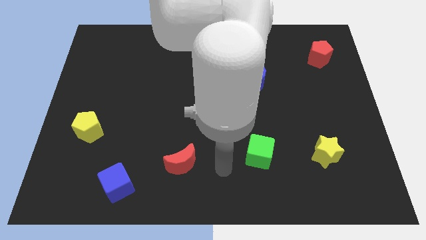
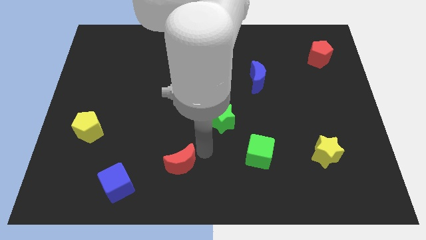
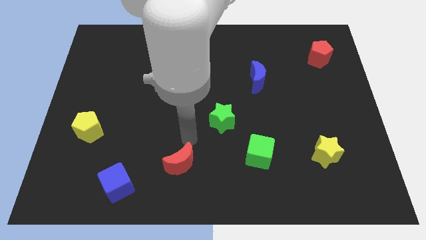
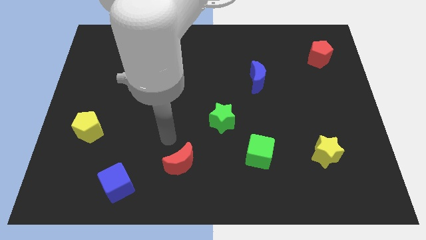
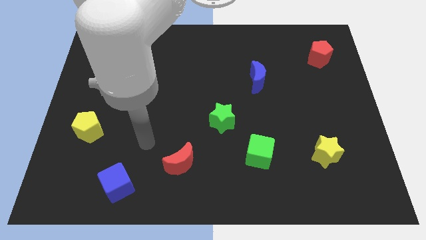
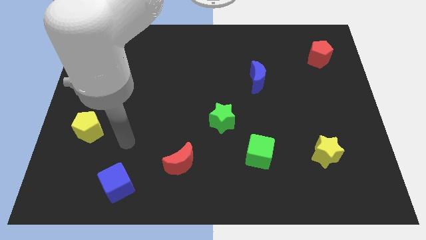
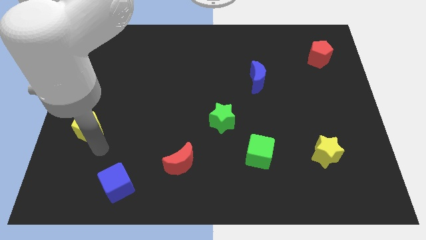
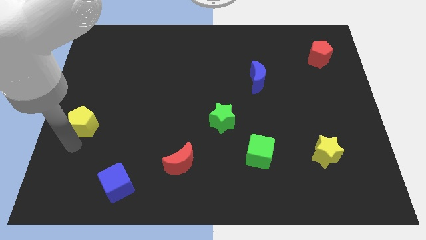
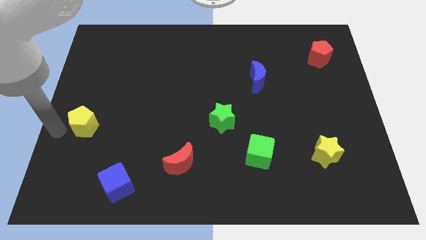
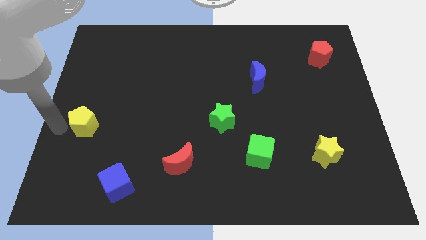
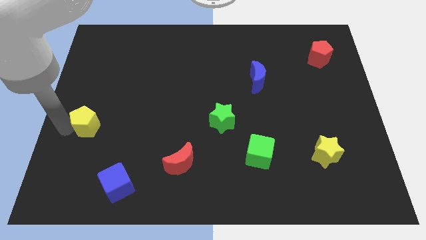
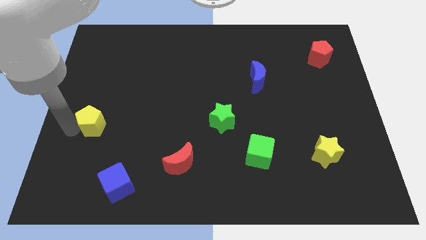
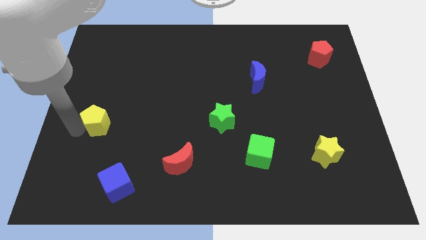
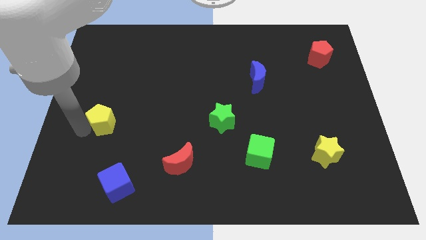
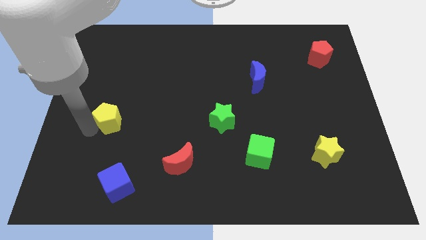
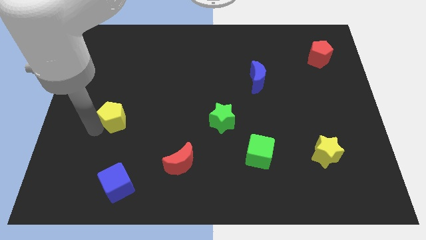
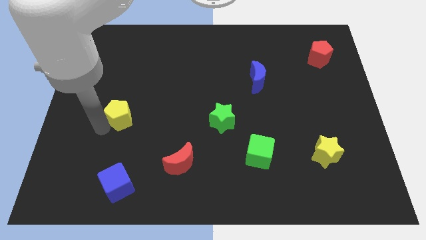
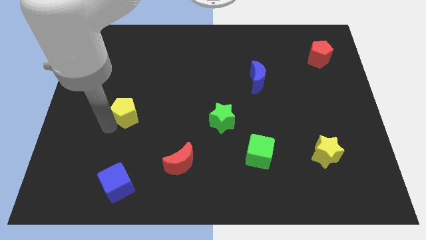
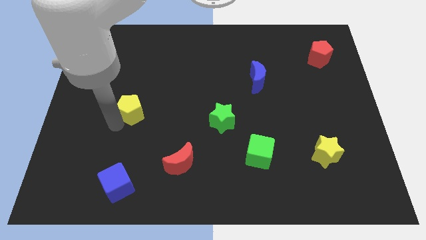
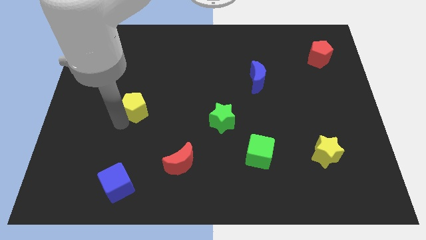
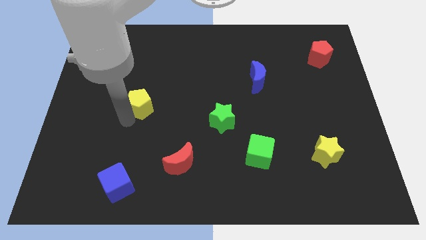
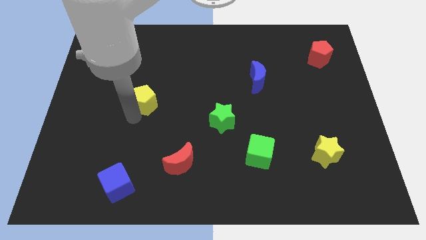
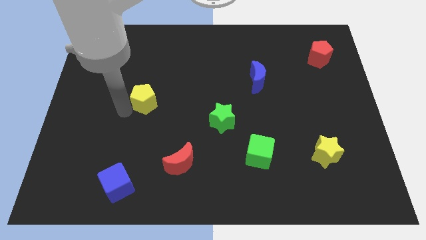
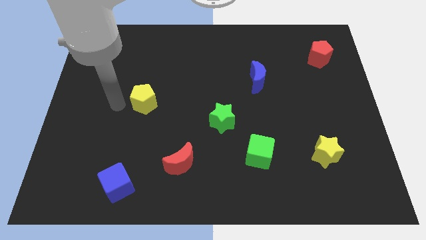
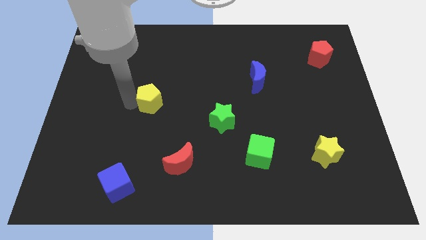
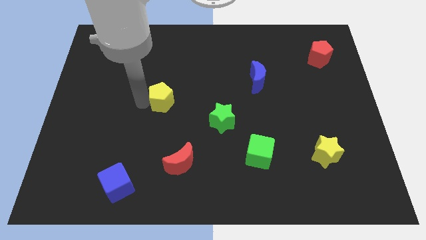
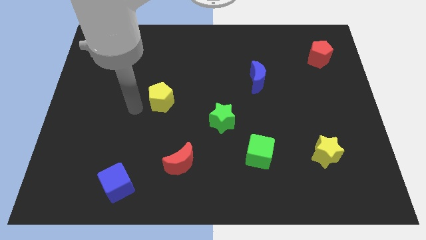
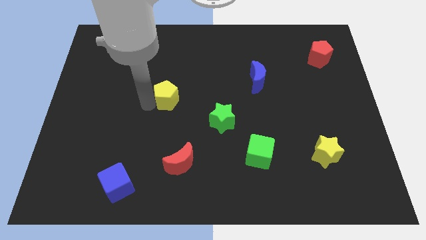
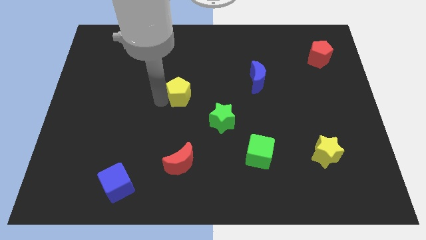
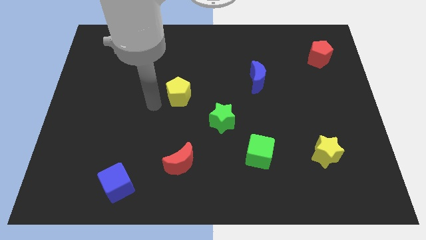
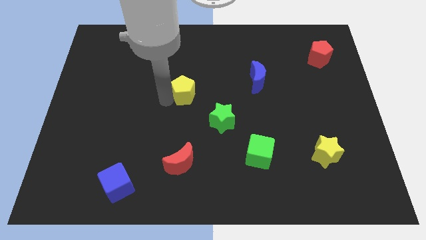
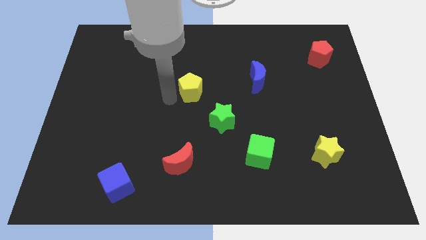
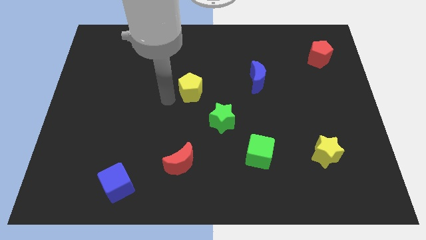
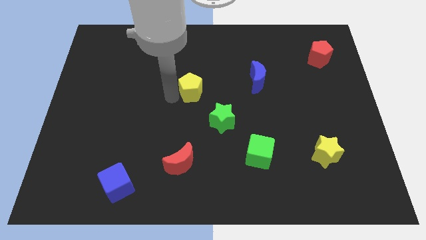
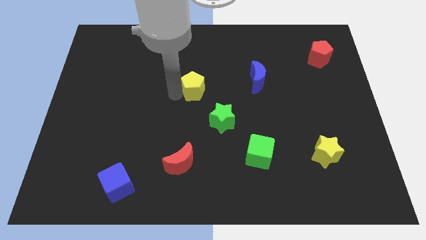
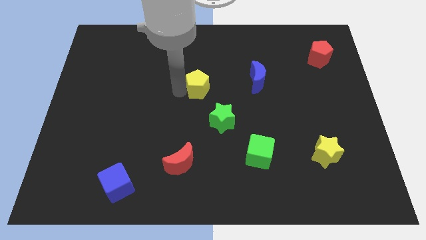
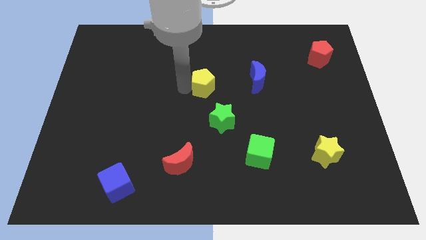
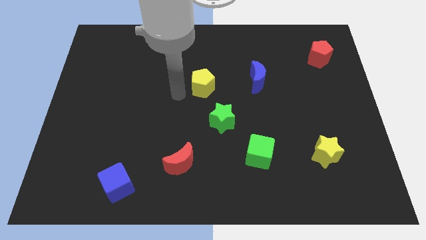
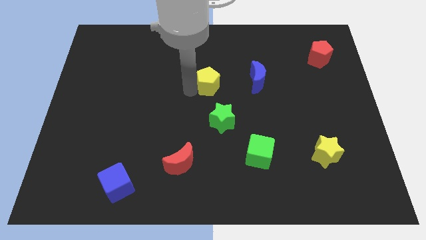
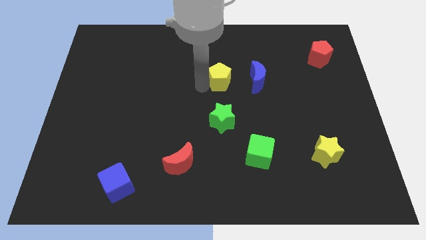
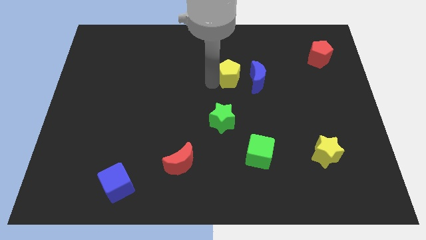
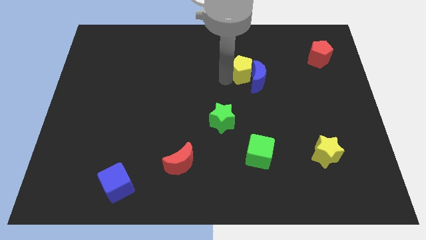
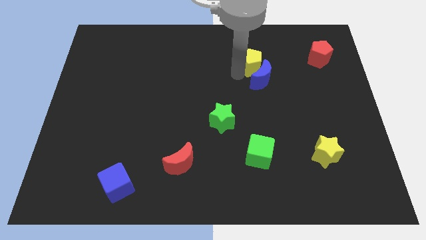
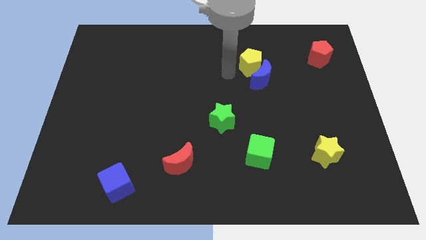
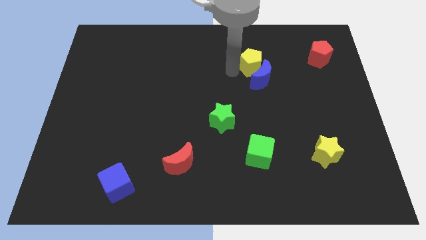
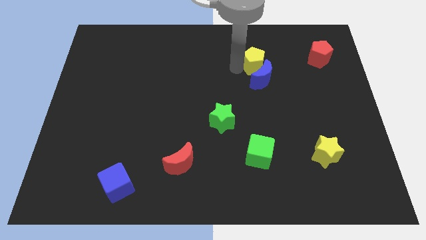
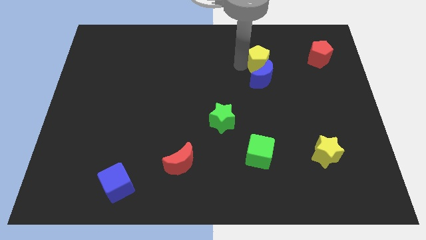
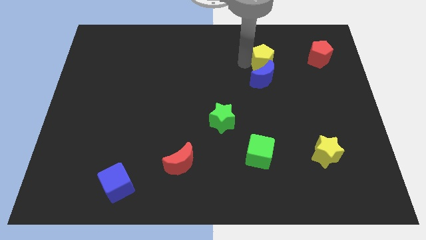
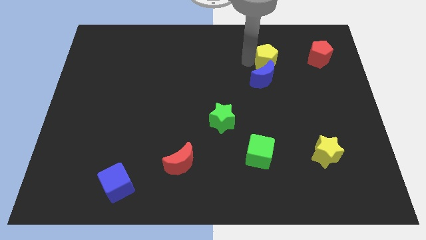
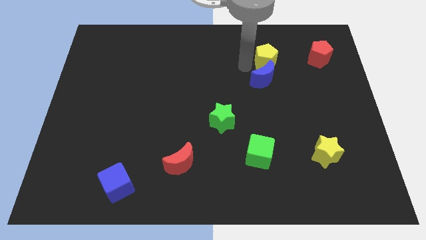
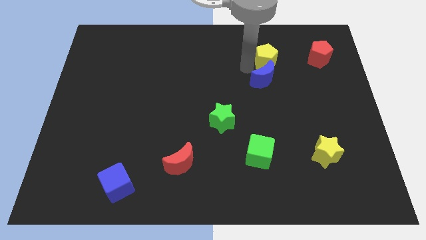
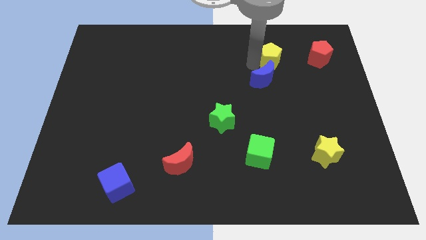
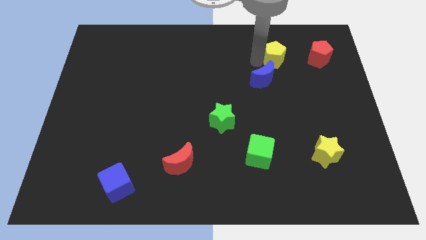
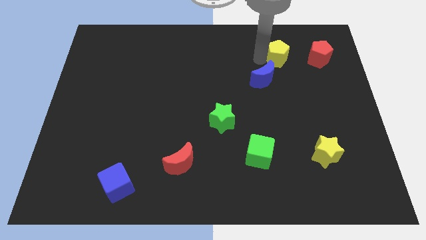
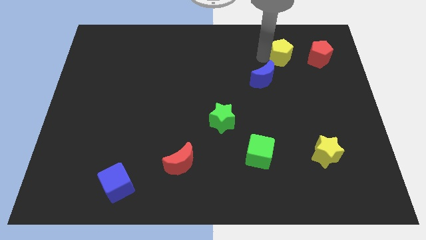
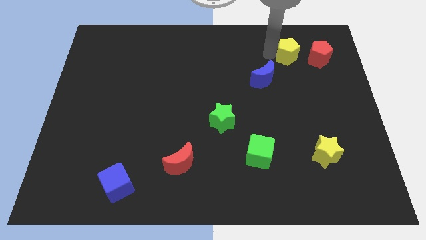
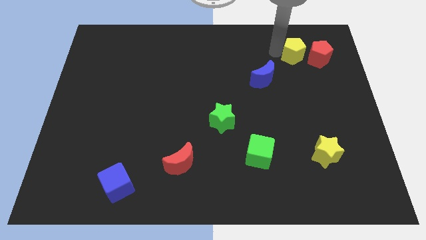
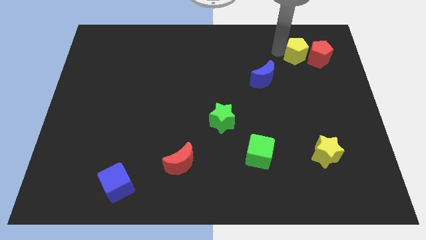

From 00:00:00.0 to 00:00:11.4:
slide the yellow pentagon close to the red pentagon

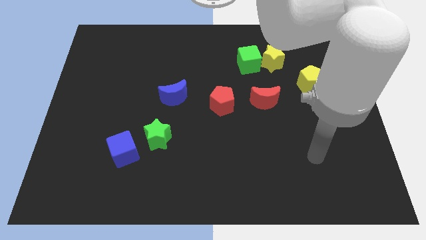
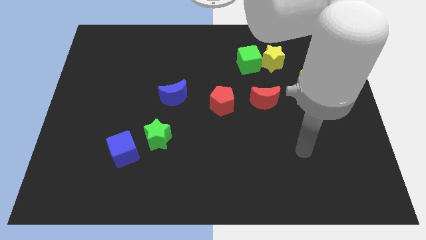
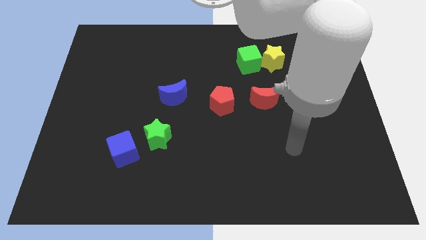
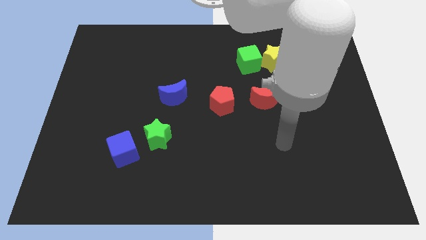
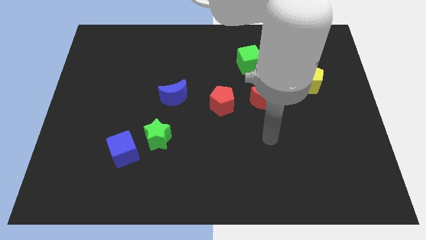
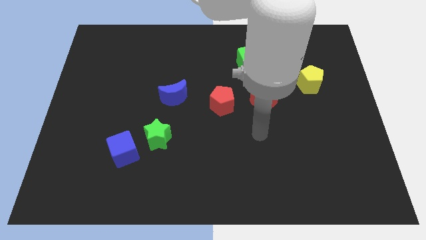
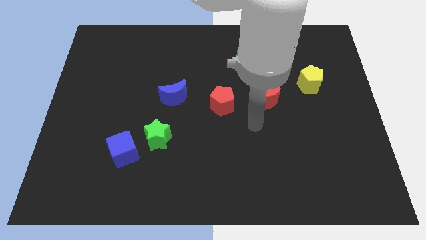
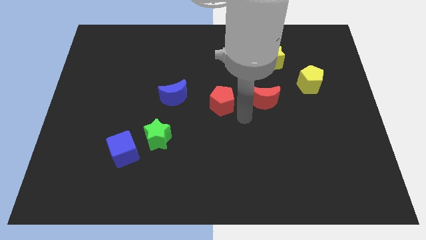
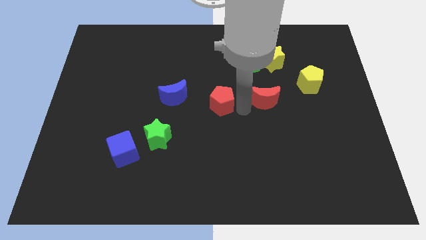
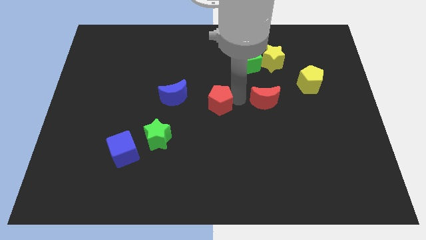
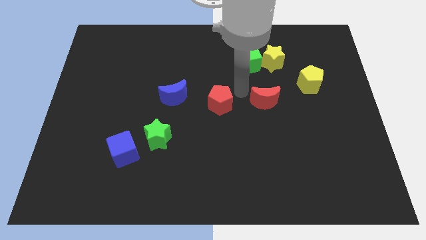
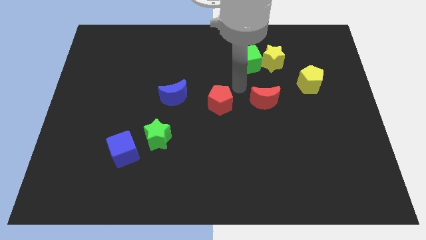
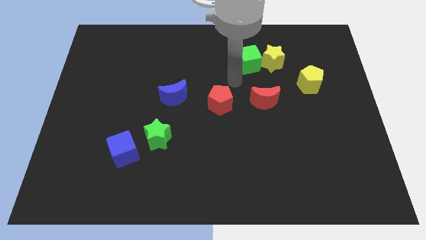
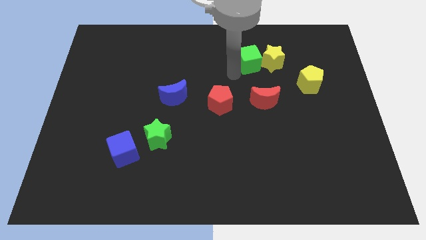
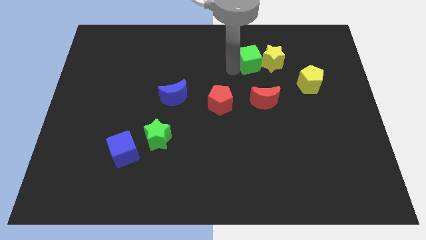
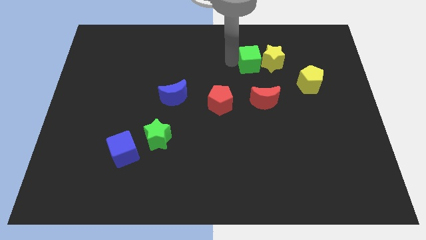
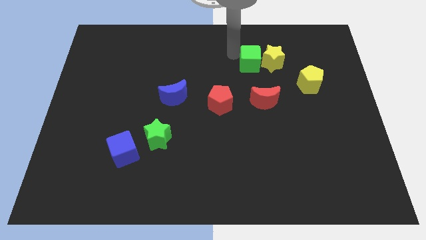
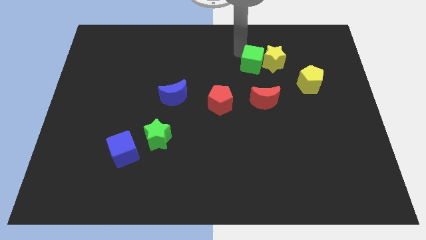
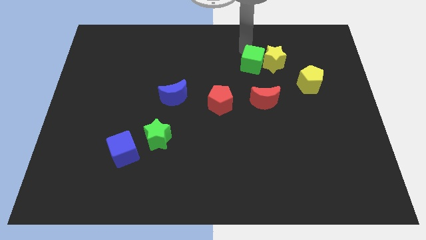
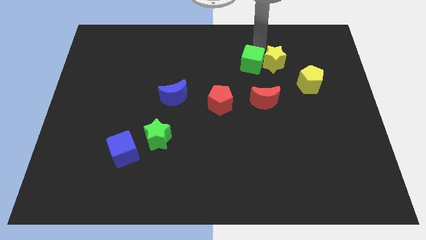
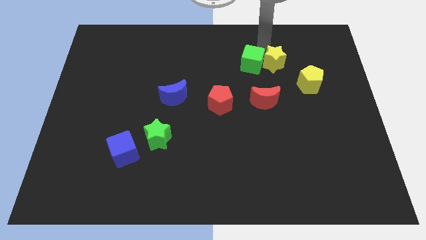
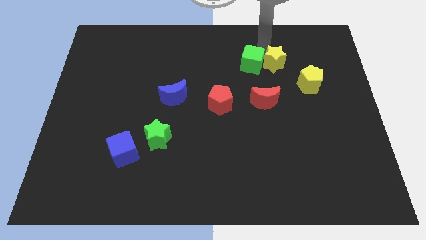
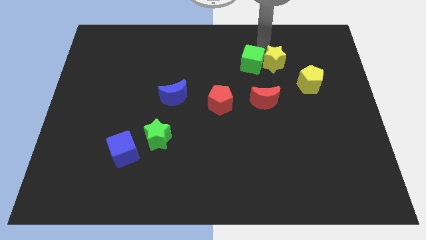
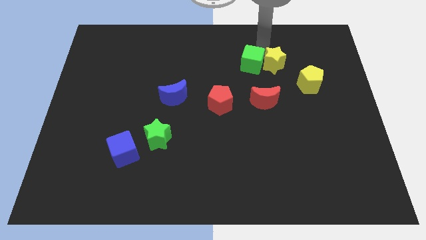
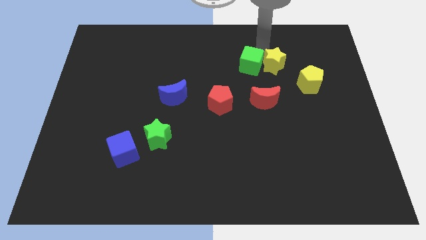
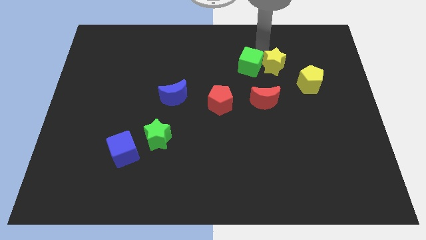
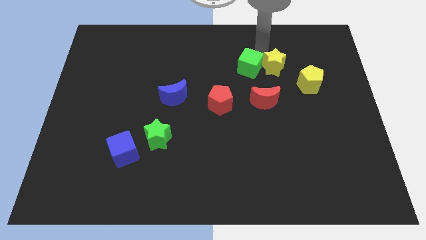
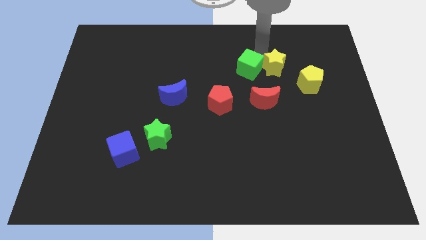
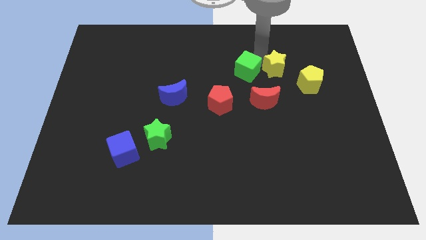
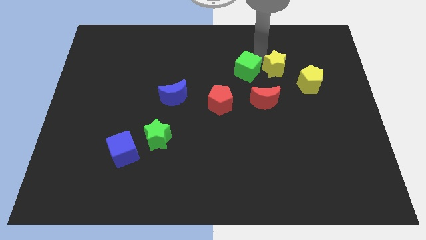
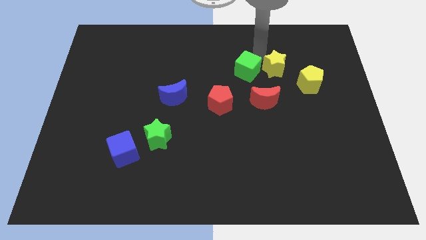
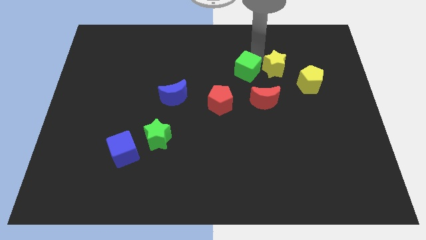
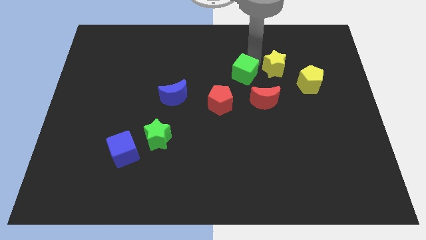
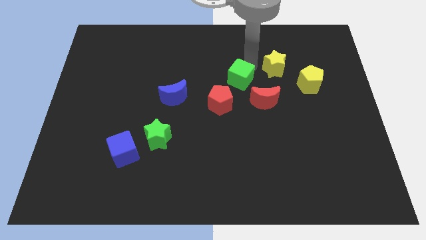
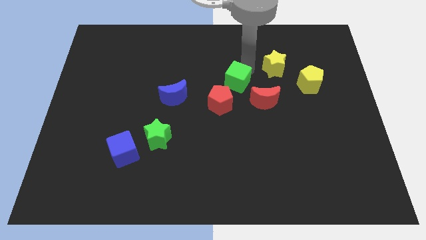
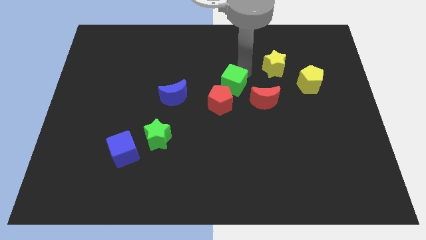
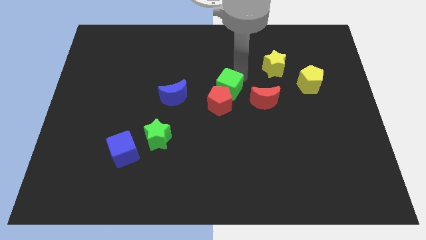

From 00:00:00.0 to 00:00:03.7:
put the green cube towards the red pentagon
